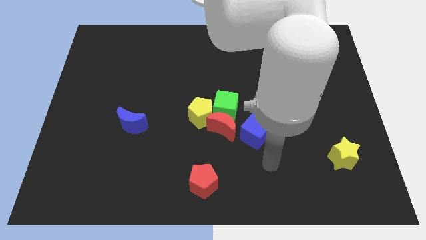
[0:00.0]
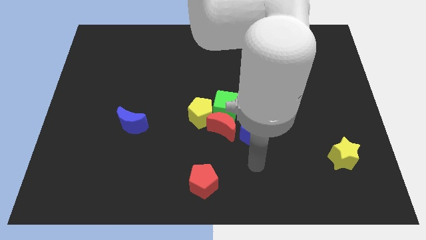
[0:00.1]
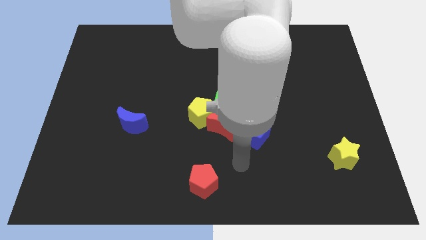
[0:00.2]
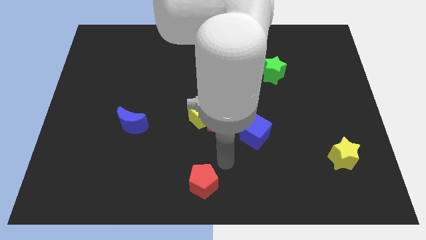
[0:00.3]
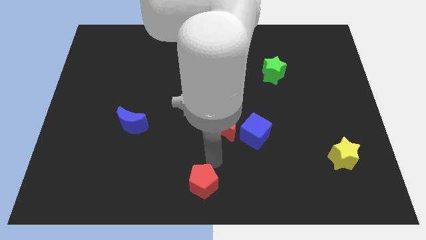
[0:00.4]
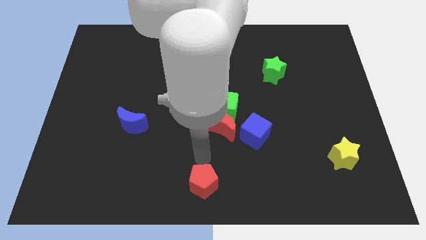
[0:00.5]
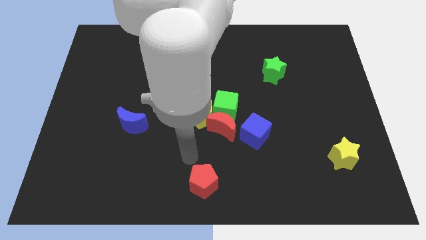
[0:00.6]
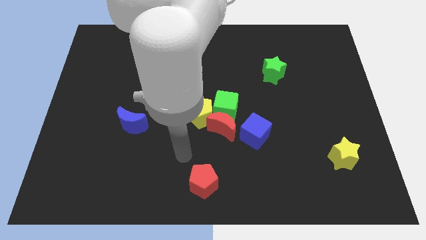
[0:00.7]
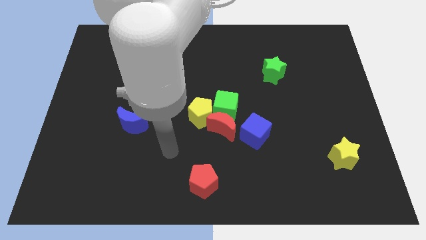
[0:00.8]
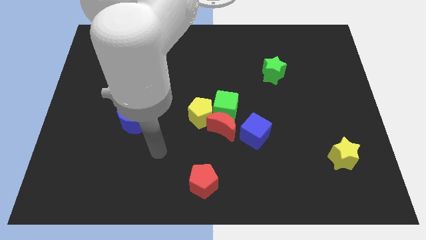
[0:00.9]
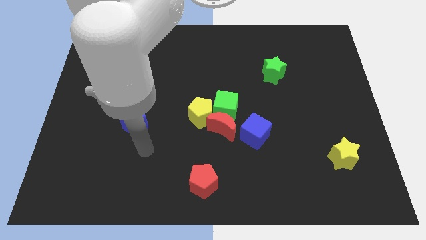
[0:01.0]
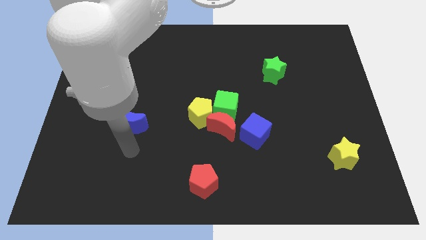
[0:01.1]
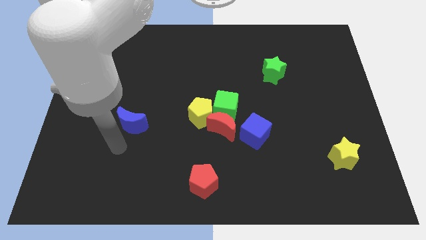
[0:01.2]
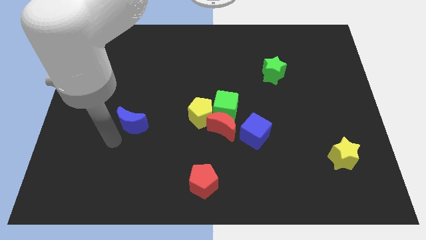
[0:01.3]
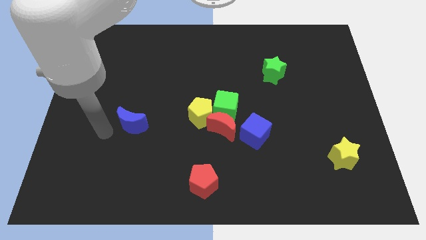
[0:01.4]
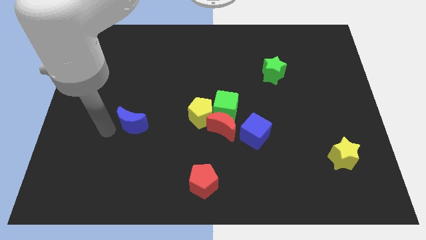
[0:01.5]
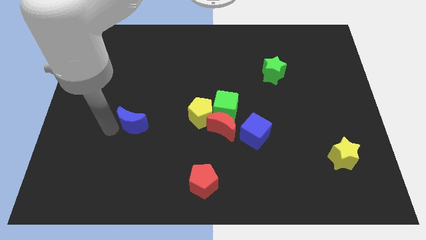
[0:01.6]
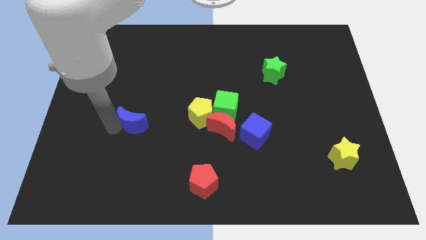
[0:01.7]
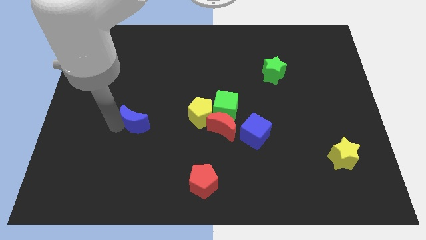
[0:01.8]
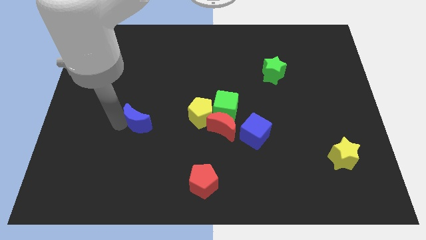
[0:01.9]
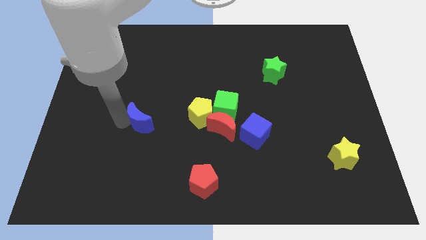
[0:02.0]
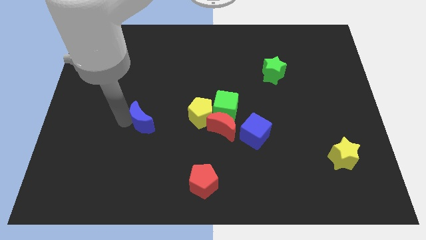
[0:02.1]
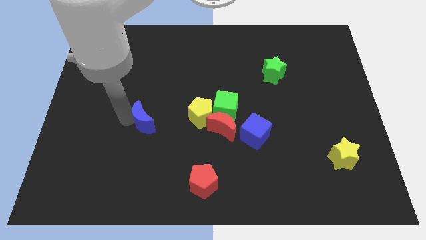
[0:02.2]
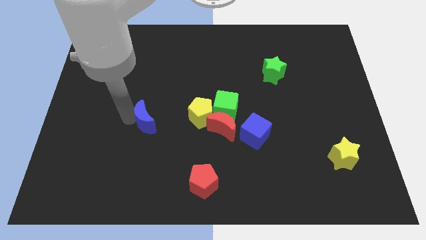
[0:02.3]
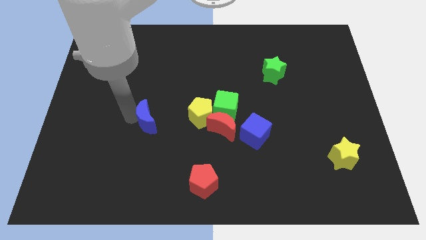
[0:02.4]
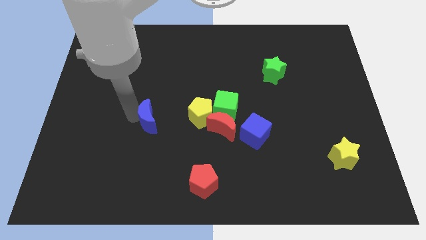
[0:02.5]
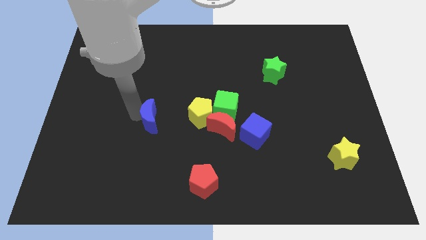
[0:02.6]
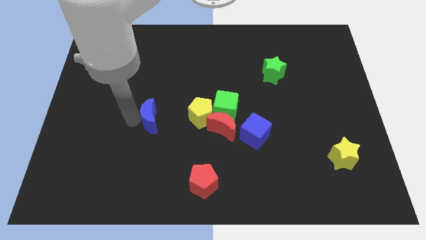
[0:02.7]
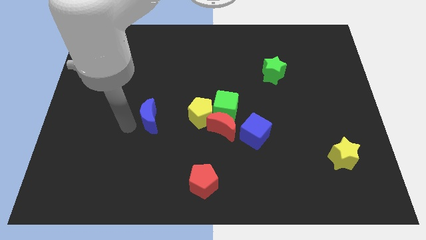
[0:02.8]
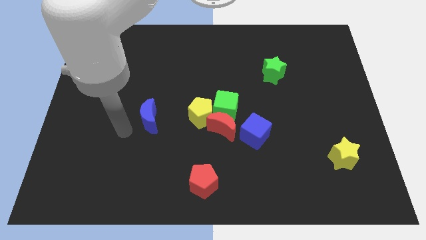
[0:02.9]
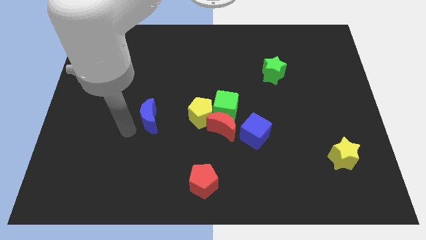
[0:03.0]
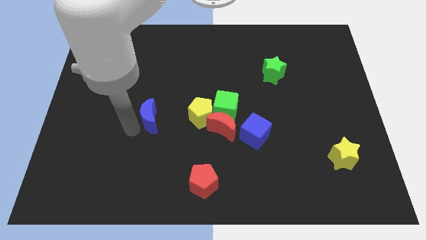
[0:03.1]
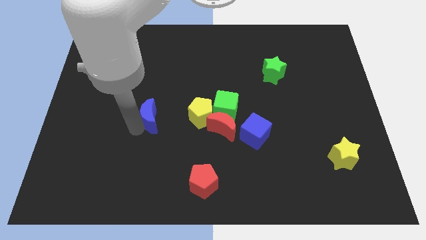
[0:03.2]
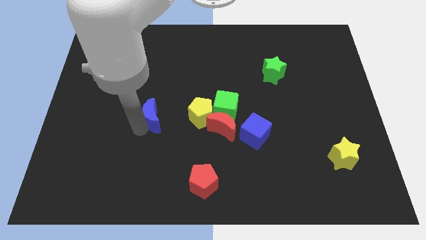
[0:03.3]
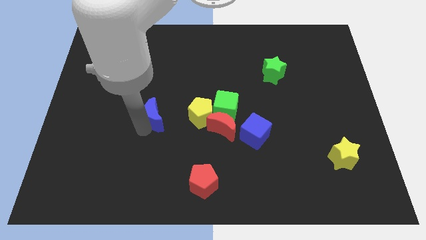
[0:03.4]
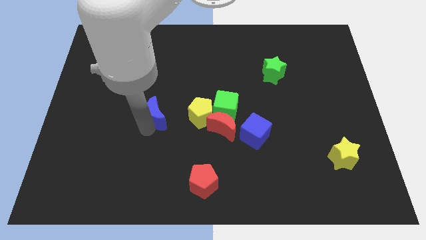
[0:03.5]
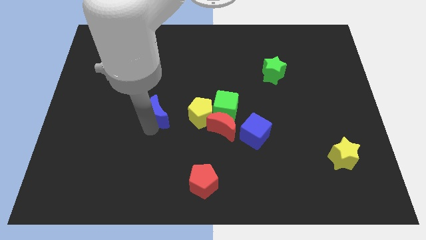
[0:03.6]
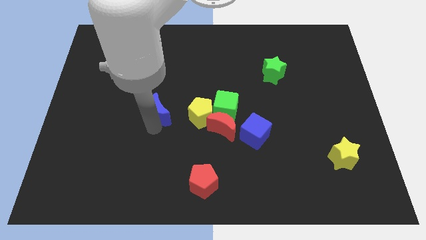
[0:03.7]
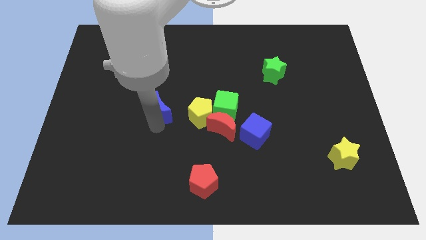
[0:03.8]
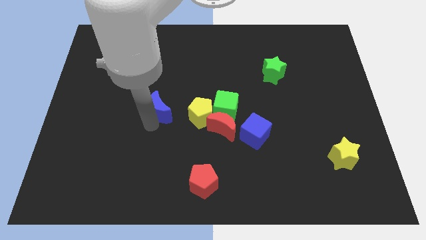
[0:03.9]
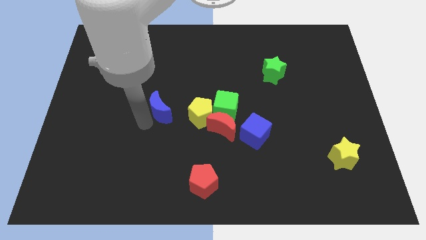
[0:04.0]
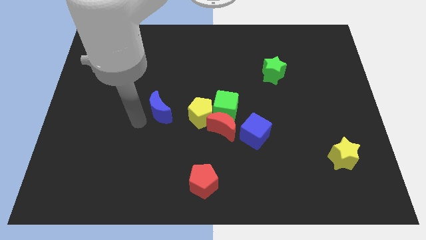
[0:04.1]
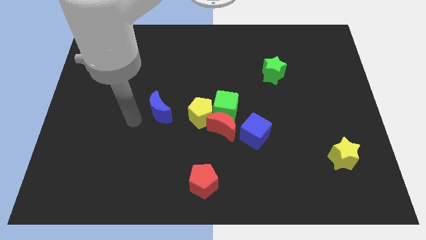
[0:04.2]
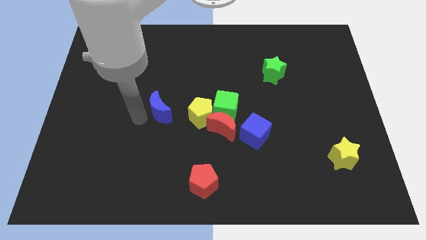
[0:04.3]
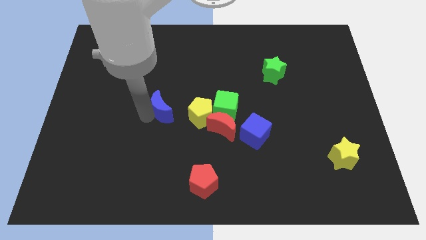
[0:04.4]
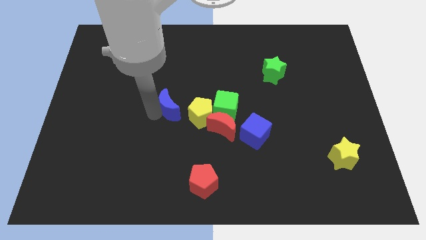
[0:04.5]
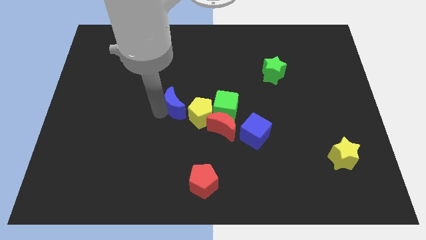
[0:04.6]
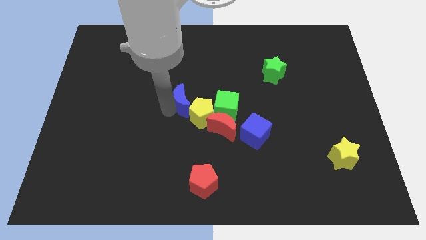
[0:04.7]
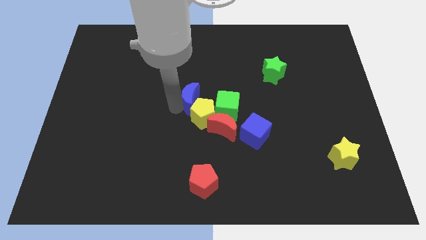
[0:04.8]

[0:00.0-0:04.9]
slide the blue moon diagonally up and to the left of the green cube

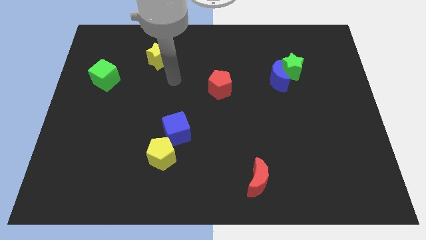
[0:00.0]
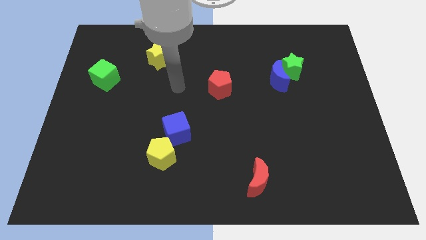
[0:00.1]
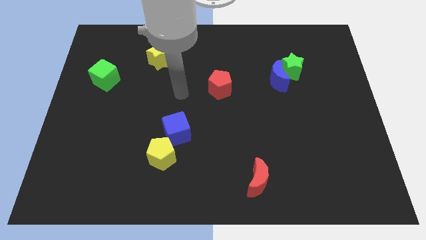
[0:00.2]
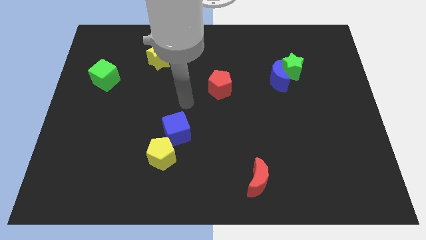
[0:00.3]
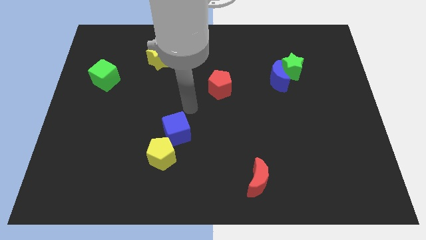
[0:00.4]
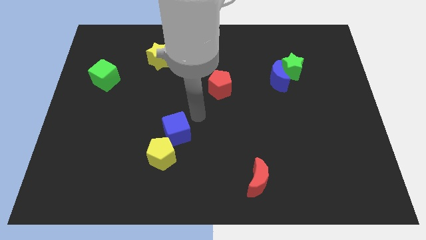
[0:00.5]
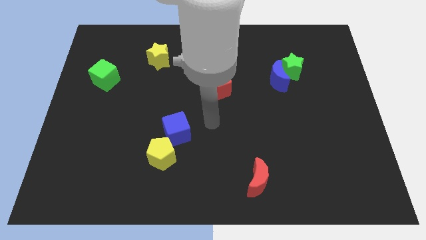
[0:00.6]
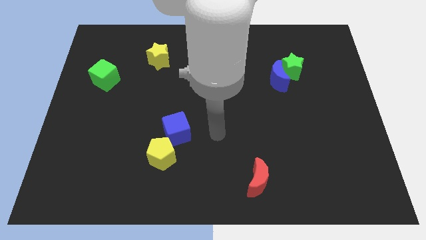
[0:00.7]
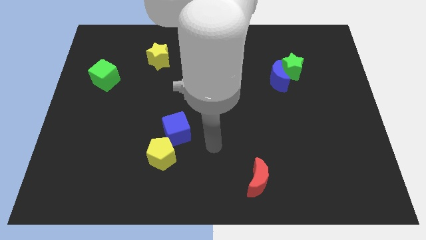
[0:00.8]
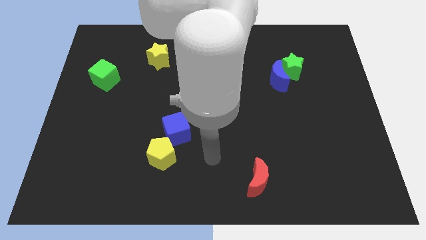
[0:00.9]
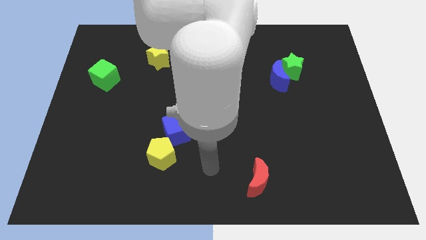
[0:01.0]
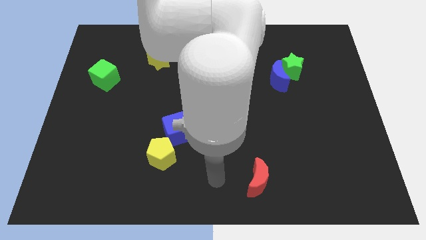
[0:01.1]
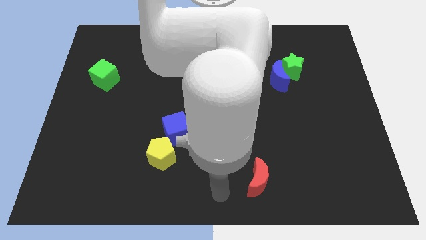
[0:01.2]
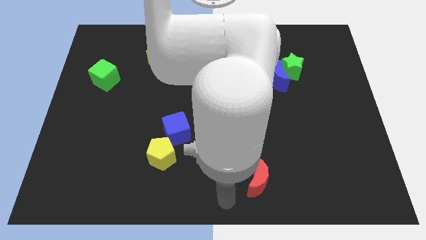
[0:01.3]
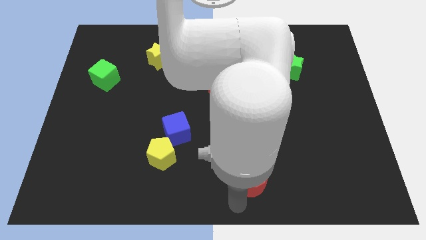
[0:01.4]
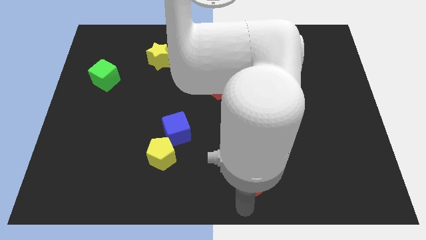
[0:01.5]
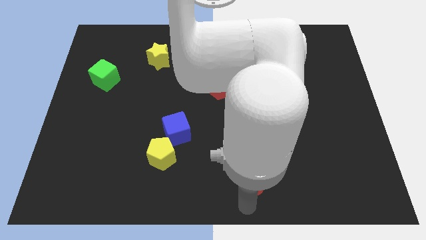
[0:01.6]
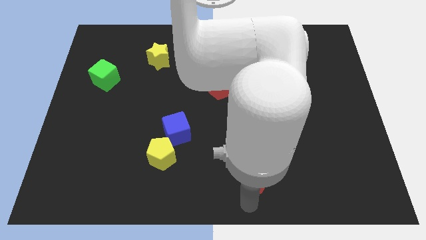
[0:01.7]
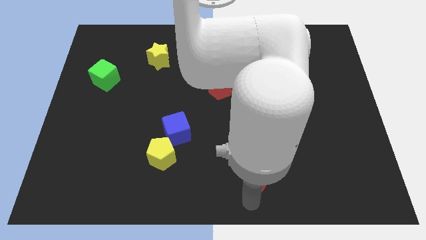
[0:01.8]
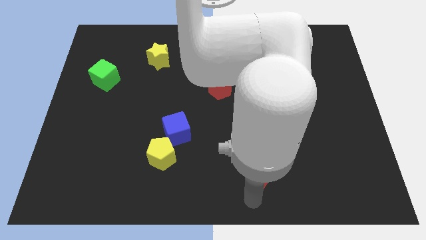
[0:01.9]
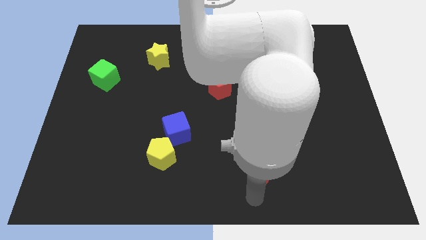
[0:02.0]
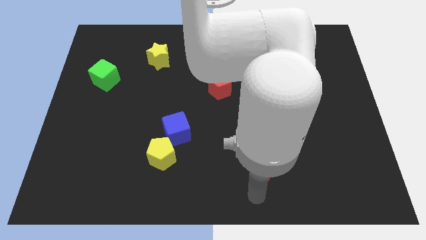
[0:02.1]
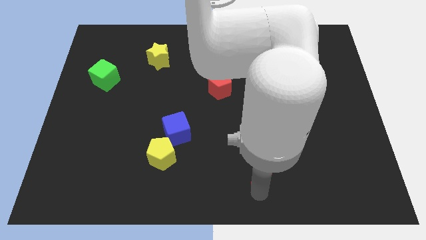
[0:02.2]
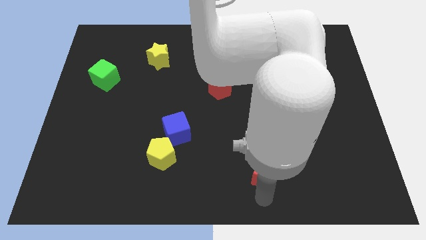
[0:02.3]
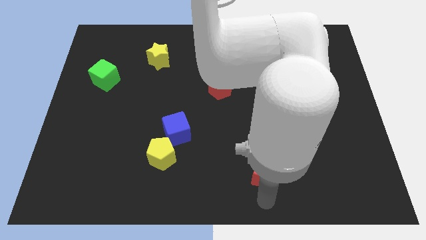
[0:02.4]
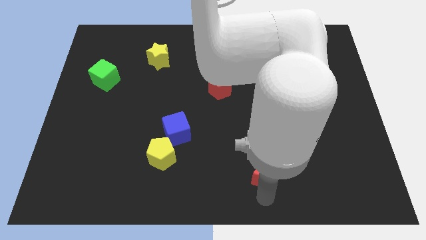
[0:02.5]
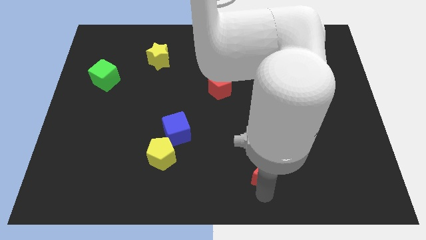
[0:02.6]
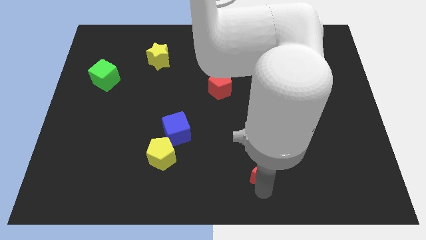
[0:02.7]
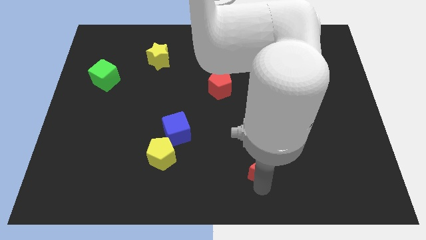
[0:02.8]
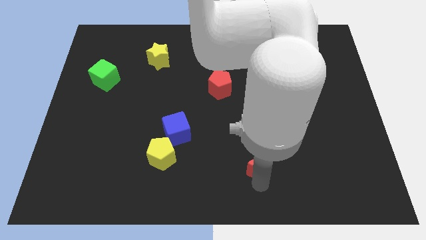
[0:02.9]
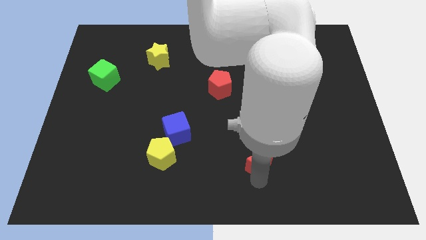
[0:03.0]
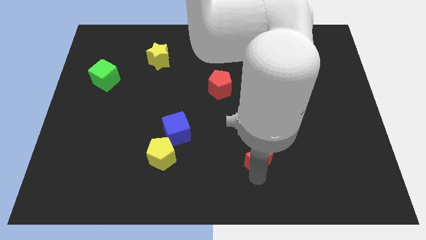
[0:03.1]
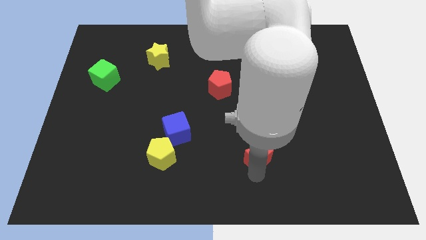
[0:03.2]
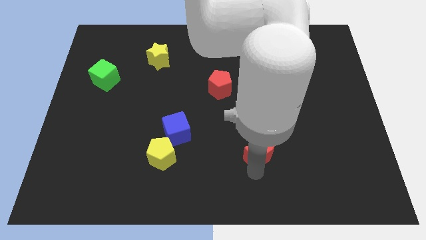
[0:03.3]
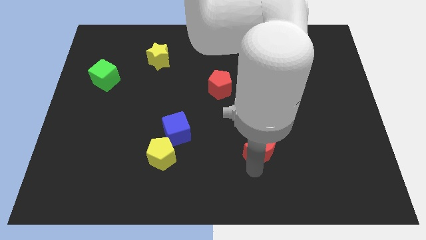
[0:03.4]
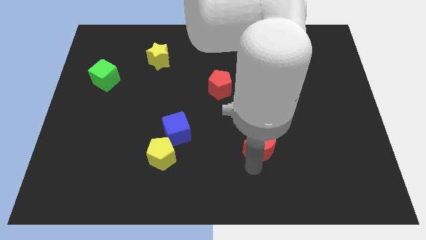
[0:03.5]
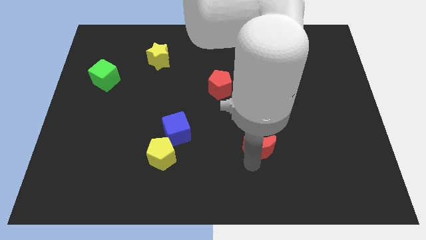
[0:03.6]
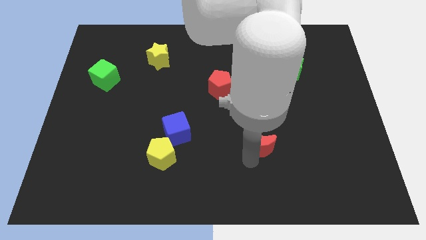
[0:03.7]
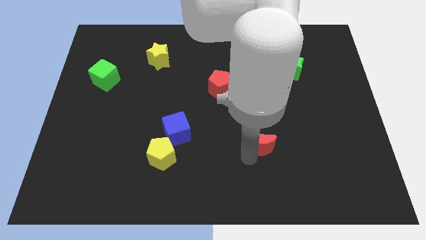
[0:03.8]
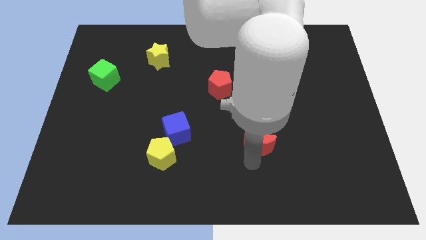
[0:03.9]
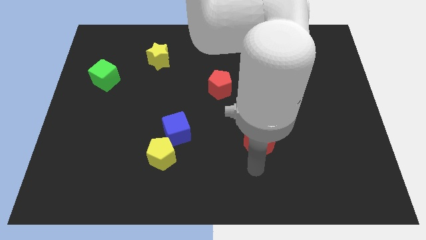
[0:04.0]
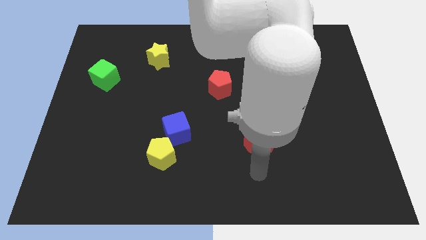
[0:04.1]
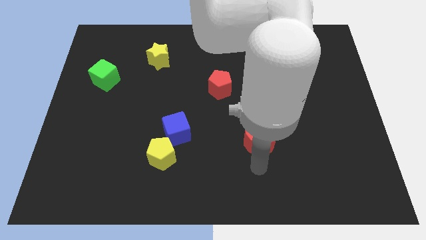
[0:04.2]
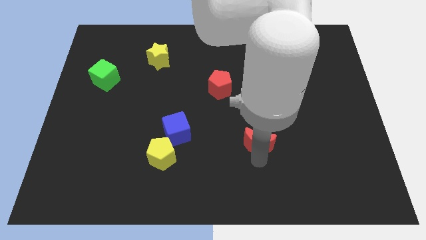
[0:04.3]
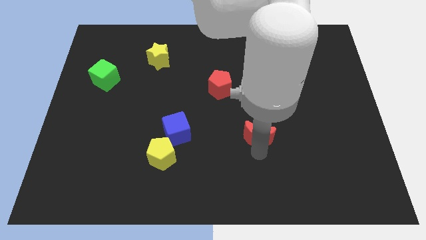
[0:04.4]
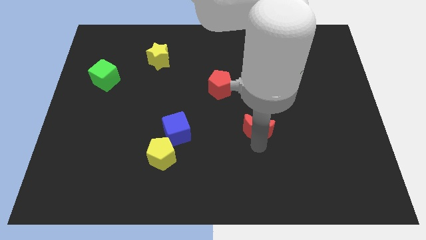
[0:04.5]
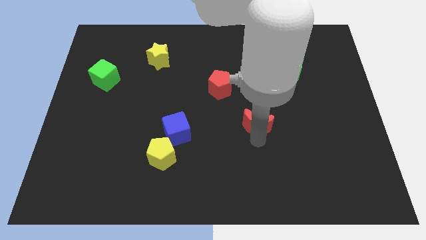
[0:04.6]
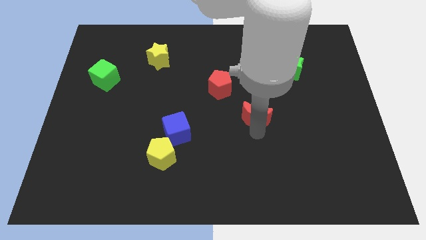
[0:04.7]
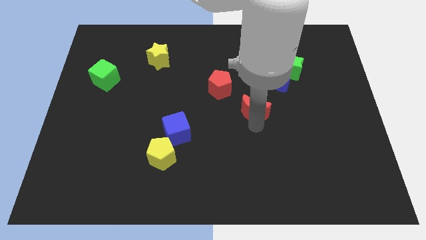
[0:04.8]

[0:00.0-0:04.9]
move the red moon diagonally down and to the left of the blue moon
